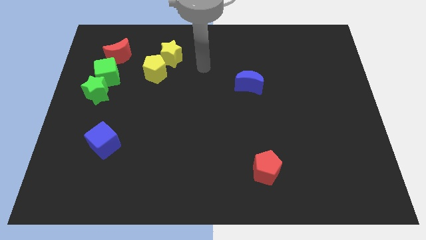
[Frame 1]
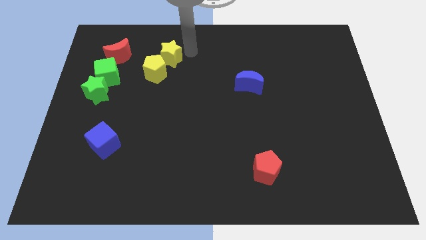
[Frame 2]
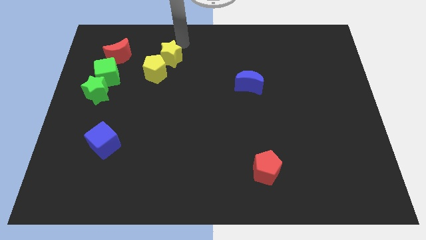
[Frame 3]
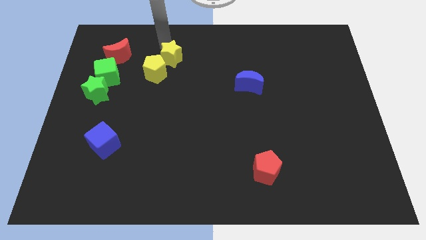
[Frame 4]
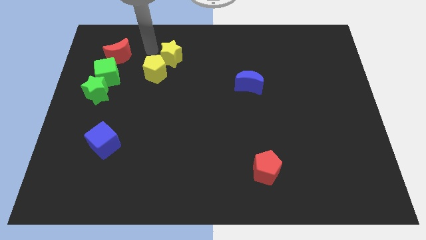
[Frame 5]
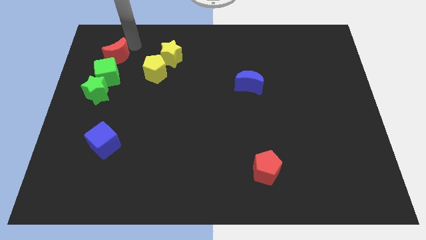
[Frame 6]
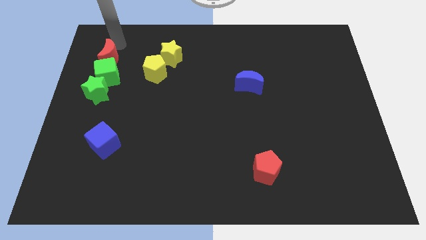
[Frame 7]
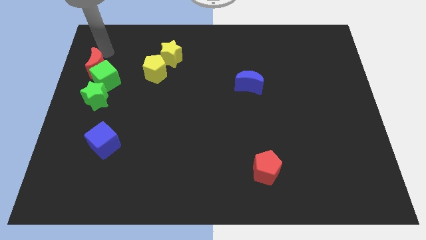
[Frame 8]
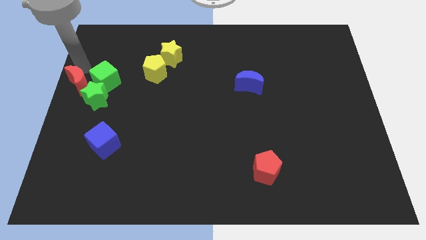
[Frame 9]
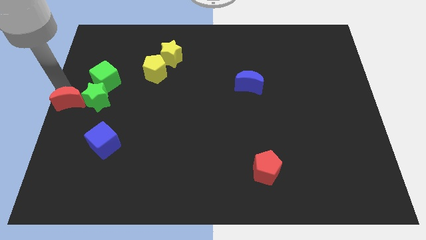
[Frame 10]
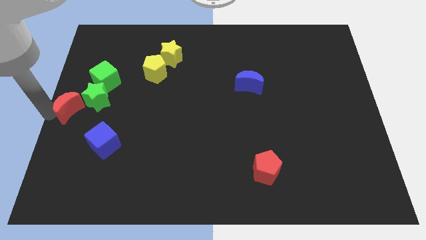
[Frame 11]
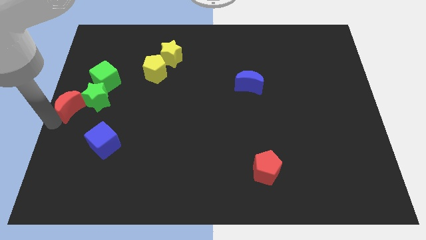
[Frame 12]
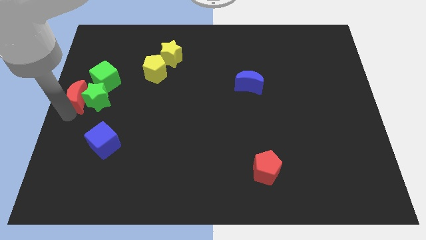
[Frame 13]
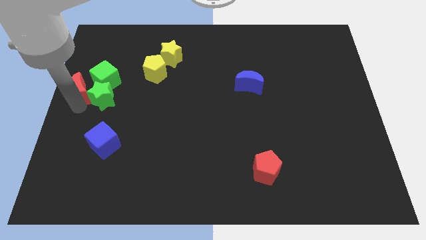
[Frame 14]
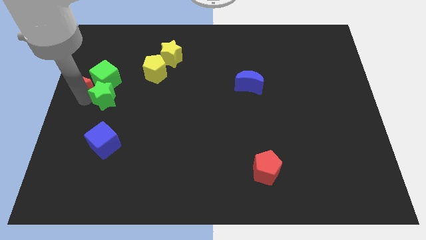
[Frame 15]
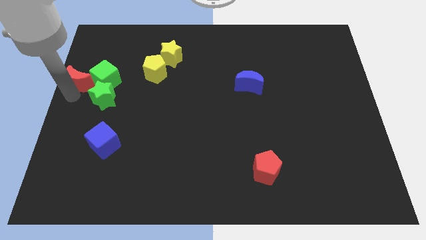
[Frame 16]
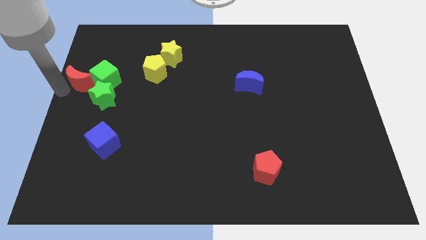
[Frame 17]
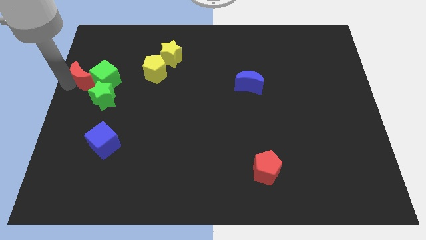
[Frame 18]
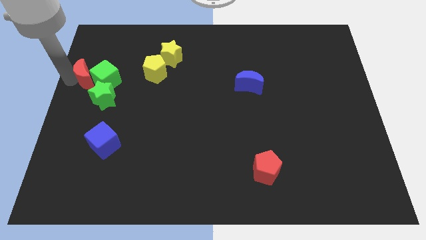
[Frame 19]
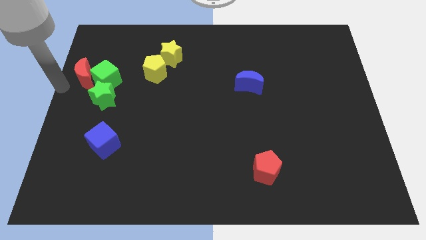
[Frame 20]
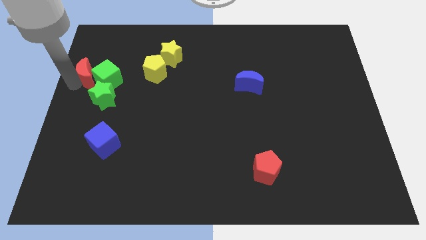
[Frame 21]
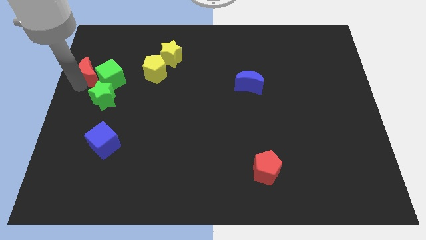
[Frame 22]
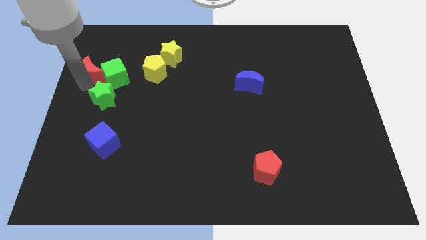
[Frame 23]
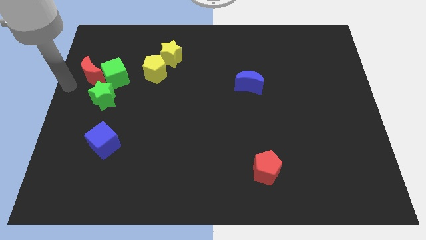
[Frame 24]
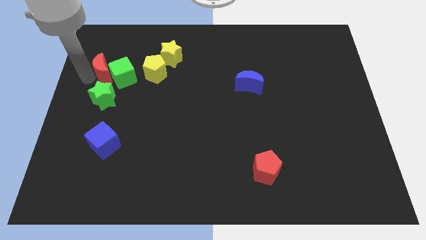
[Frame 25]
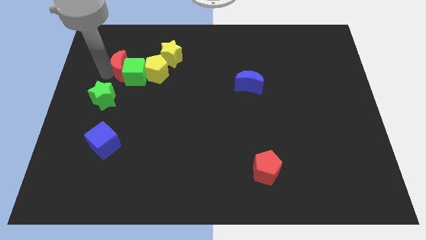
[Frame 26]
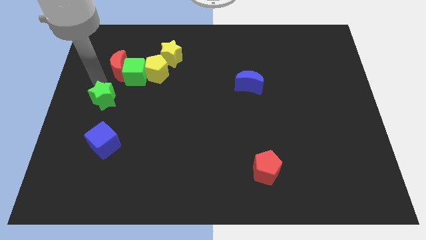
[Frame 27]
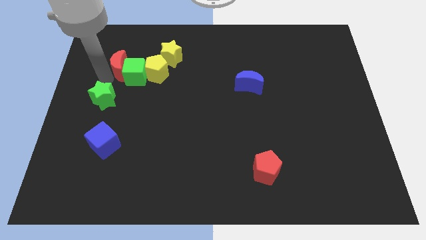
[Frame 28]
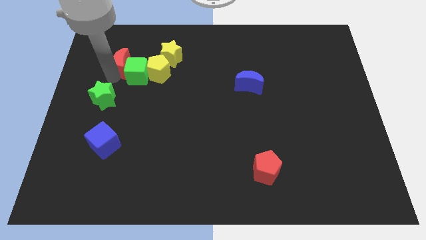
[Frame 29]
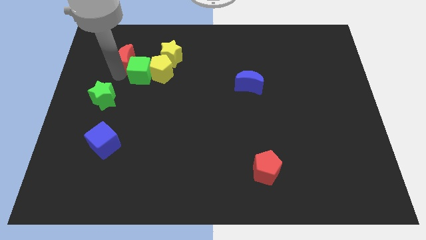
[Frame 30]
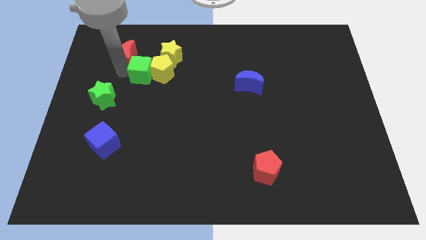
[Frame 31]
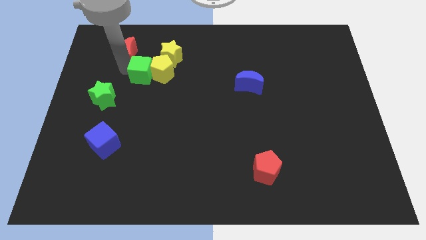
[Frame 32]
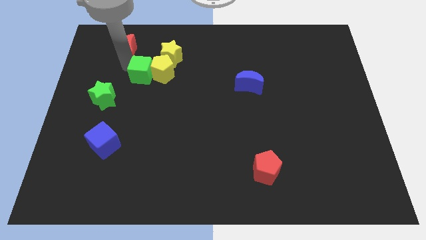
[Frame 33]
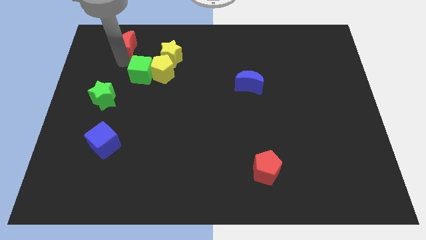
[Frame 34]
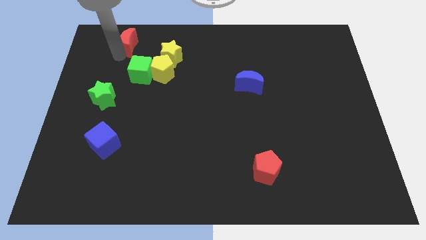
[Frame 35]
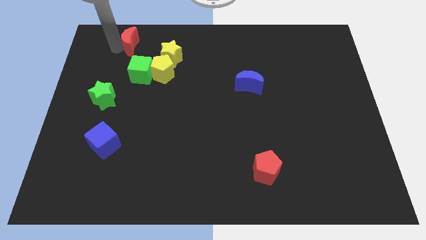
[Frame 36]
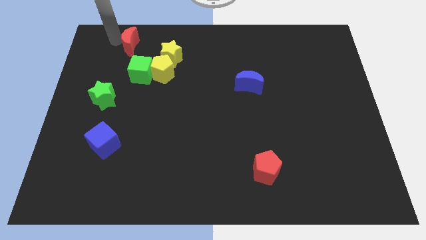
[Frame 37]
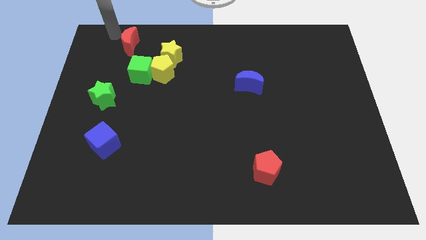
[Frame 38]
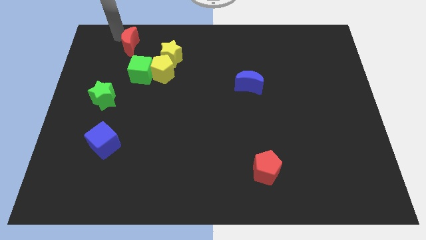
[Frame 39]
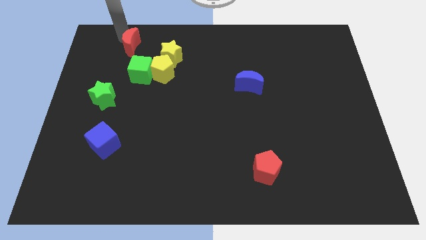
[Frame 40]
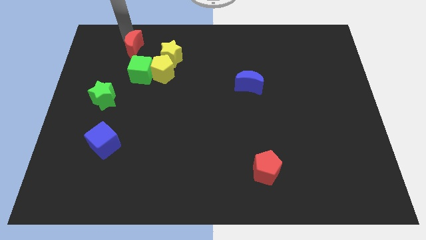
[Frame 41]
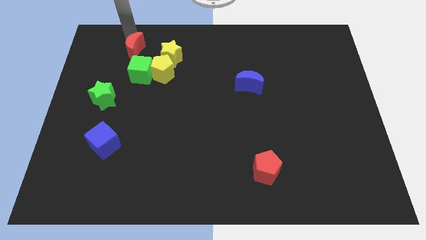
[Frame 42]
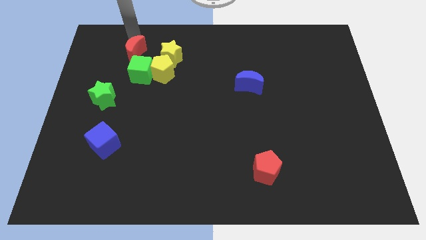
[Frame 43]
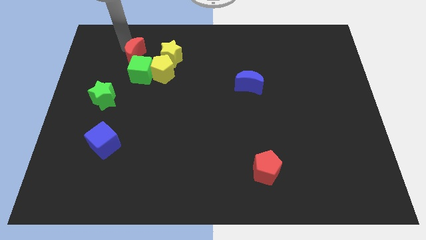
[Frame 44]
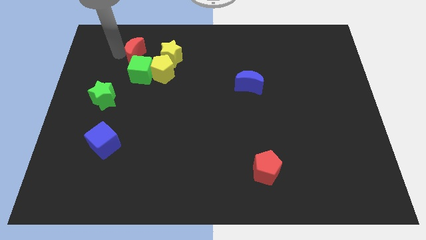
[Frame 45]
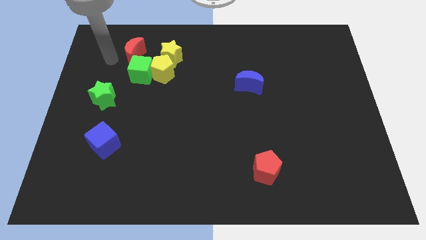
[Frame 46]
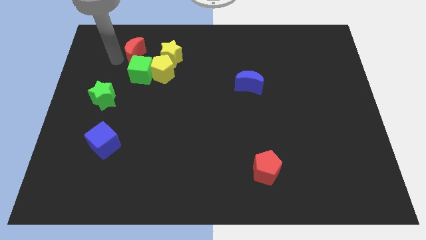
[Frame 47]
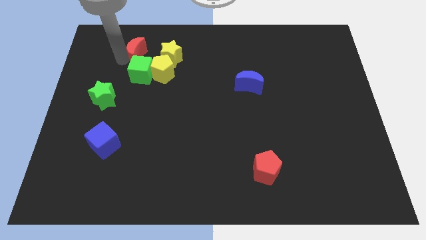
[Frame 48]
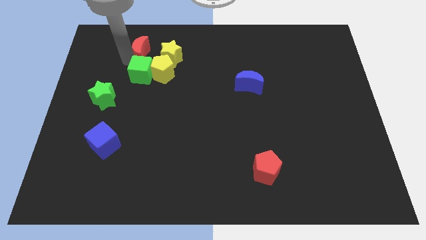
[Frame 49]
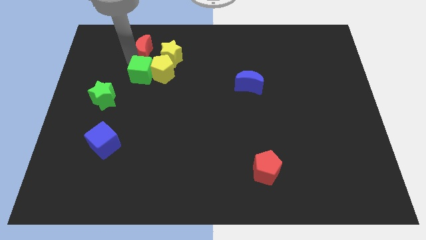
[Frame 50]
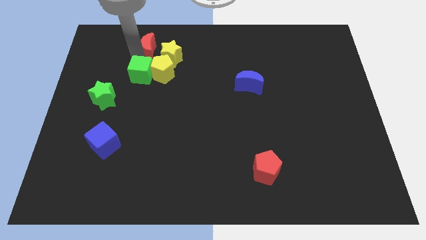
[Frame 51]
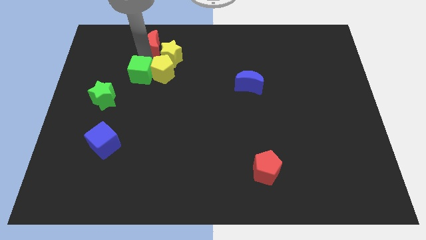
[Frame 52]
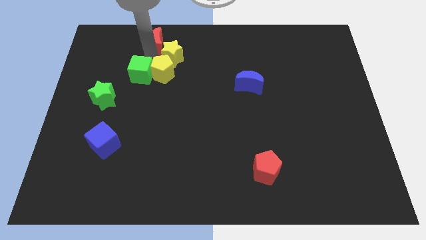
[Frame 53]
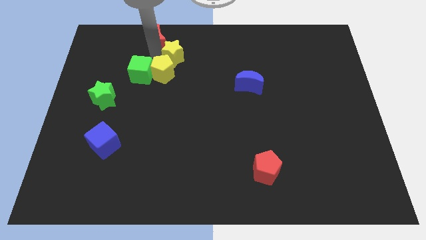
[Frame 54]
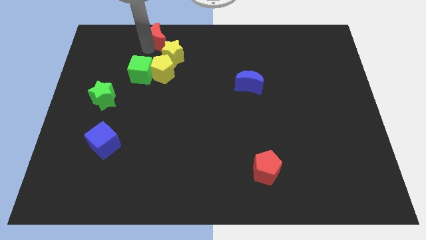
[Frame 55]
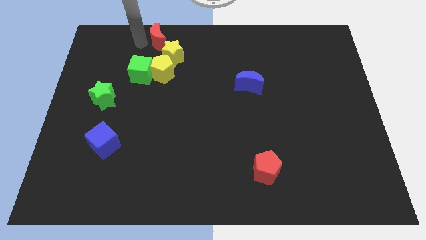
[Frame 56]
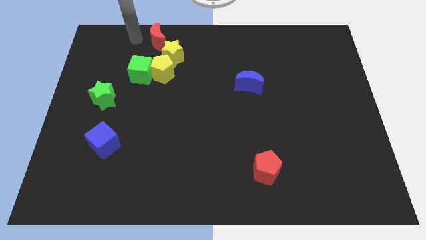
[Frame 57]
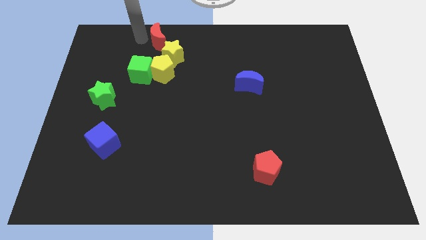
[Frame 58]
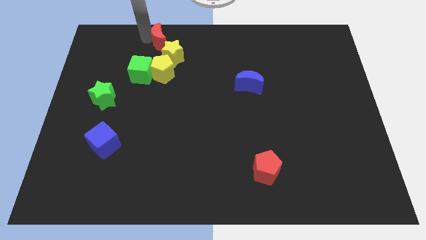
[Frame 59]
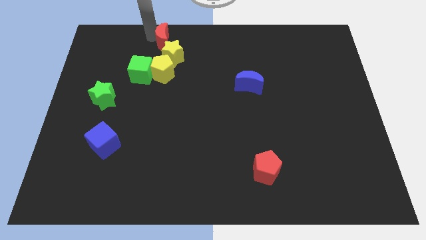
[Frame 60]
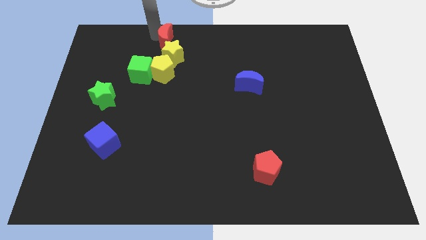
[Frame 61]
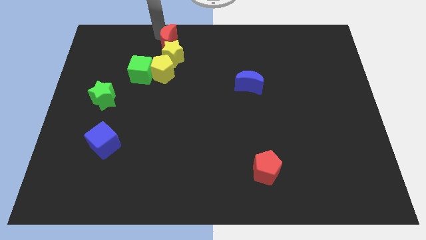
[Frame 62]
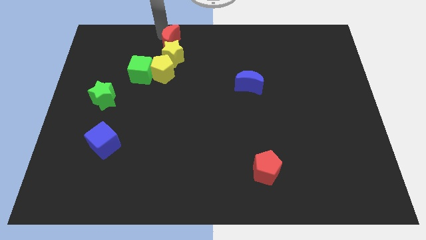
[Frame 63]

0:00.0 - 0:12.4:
put the red moon to the top side
